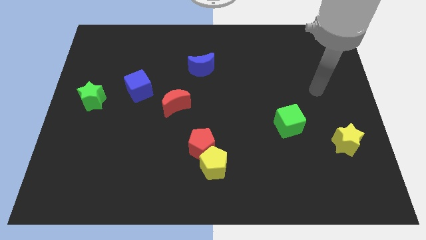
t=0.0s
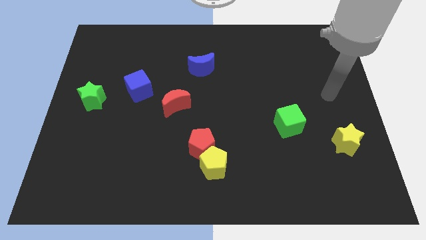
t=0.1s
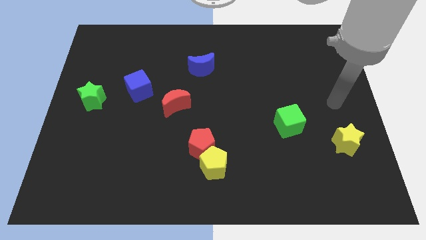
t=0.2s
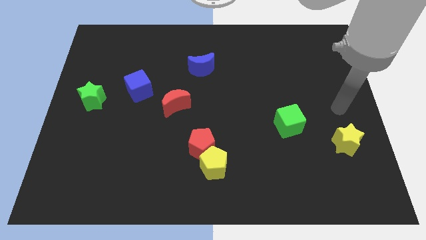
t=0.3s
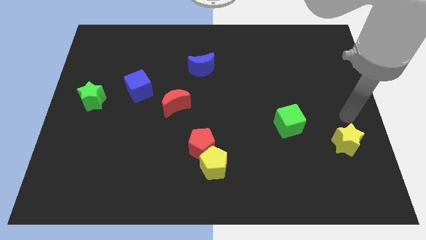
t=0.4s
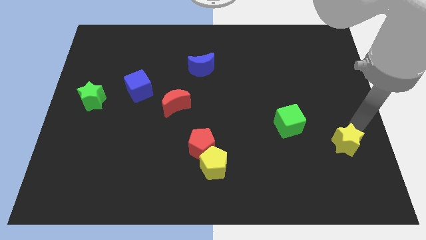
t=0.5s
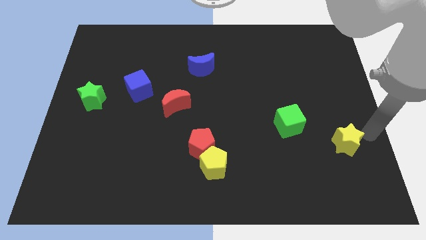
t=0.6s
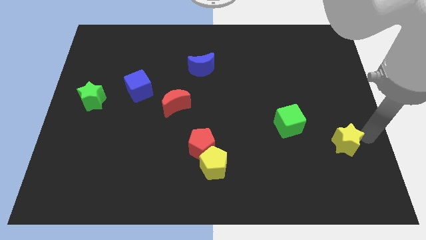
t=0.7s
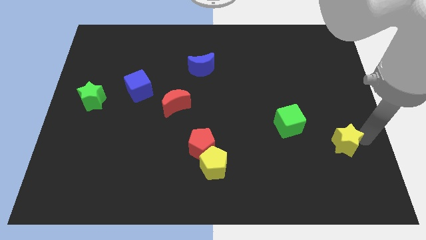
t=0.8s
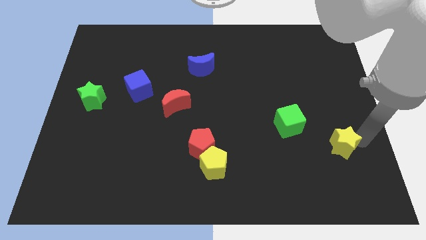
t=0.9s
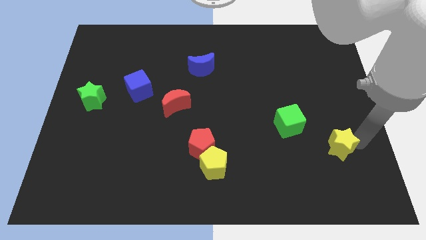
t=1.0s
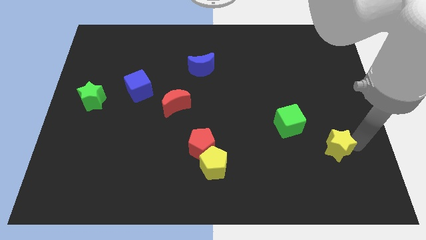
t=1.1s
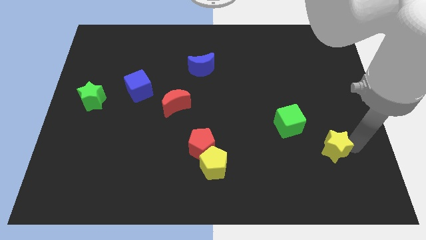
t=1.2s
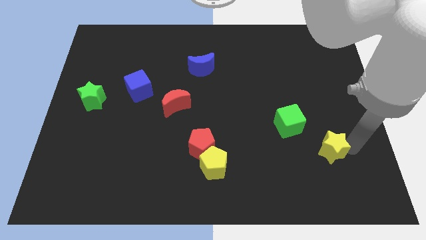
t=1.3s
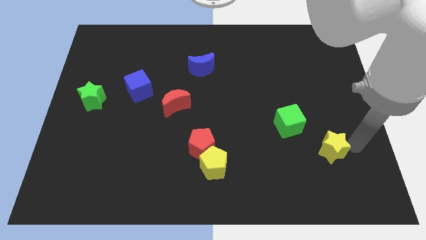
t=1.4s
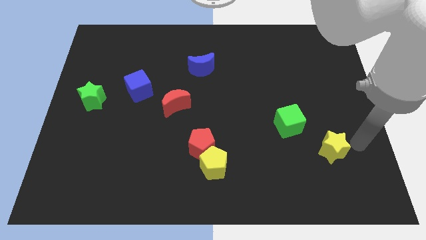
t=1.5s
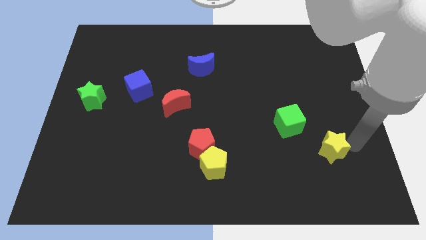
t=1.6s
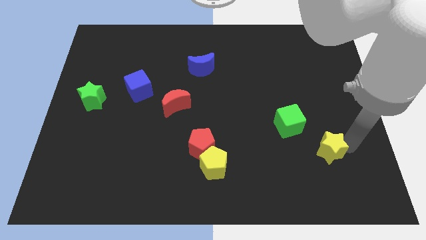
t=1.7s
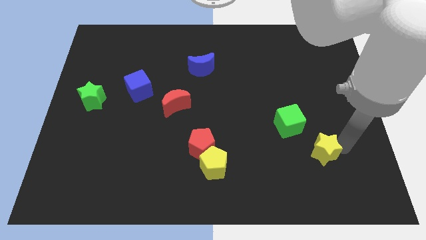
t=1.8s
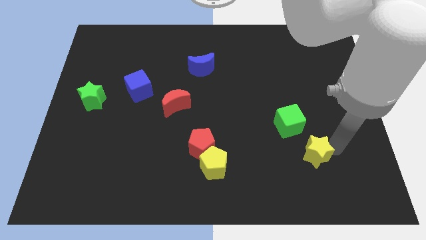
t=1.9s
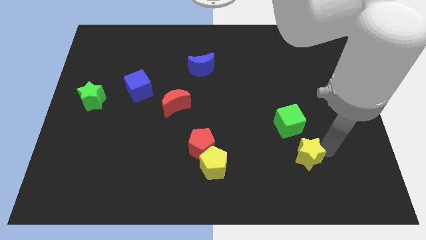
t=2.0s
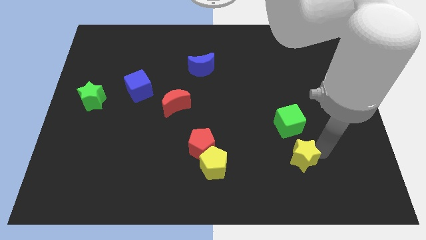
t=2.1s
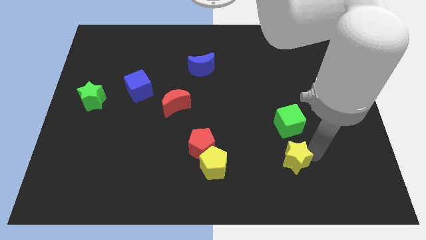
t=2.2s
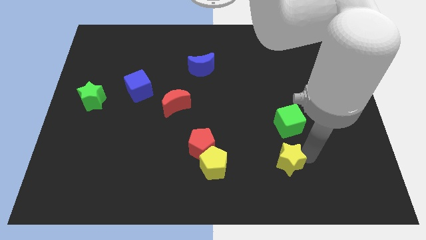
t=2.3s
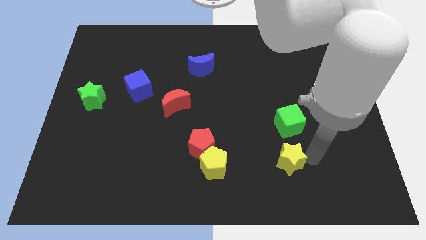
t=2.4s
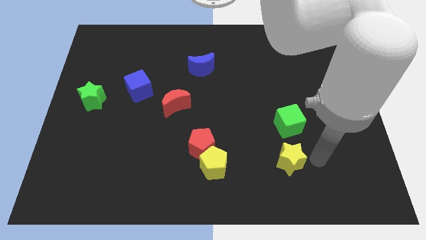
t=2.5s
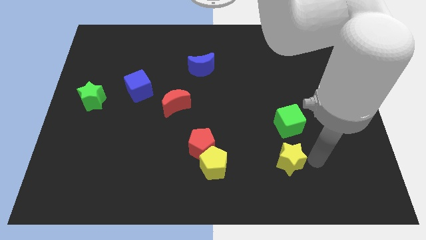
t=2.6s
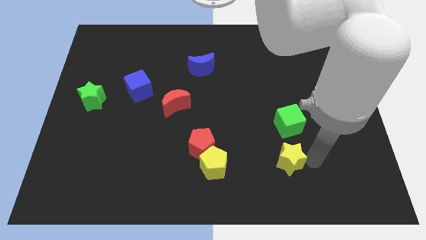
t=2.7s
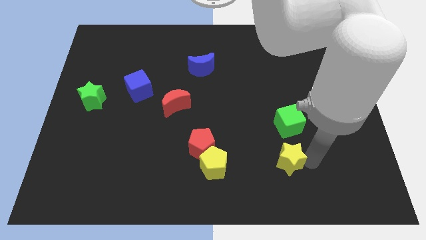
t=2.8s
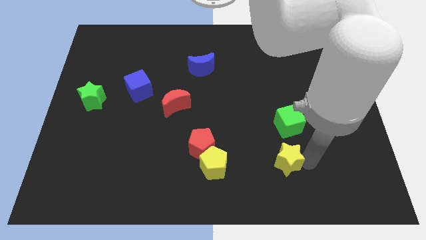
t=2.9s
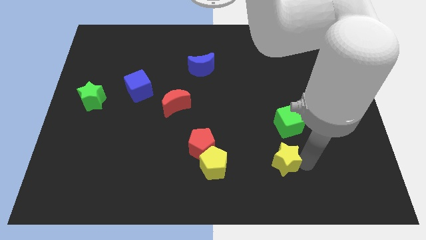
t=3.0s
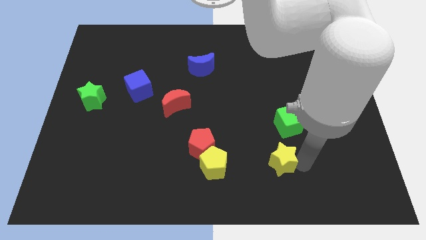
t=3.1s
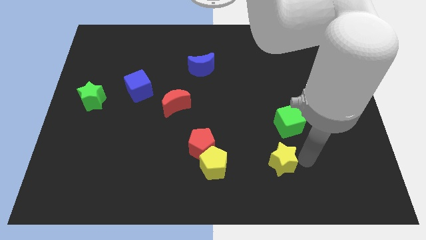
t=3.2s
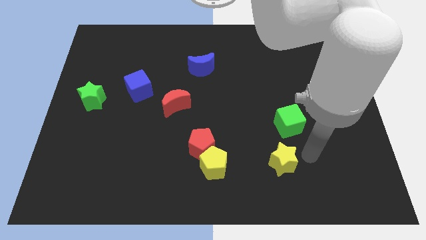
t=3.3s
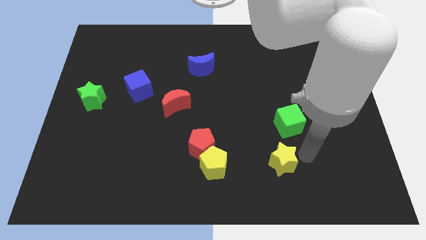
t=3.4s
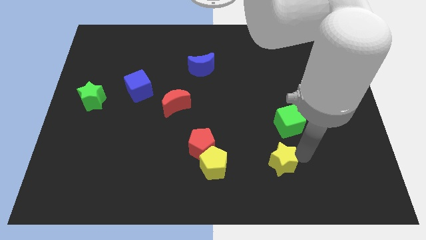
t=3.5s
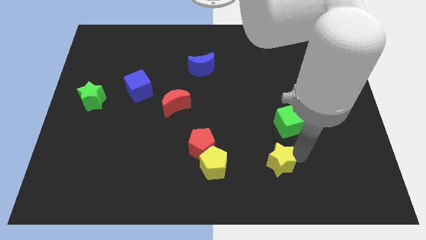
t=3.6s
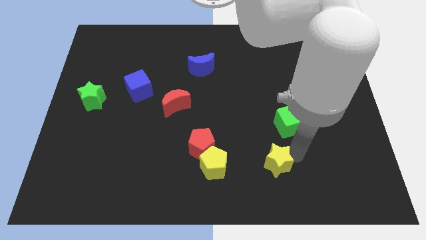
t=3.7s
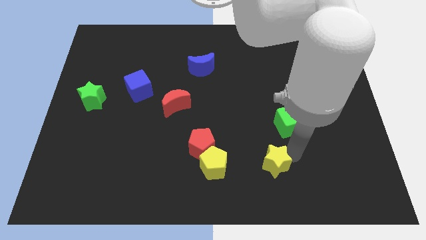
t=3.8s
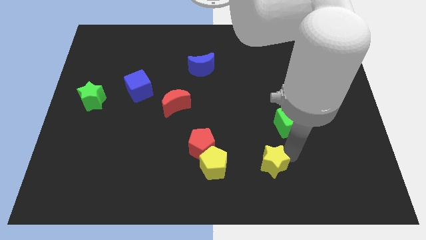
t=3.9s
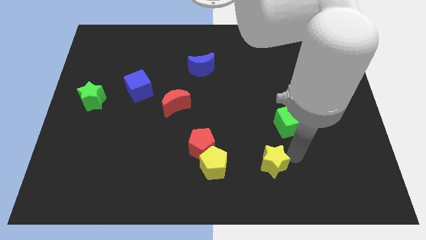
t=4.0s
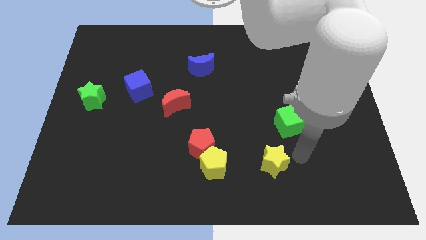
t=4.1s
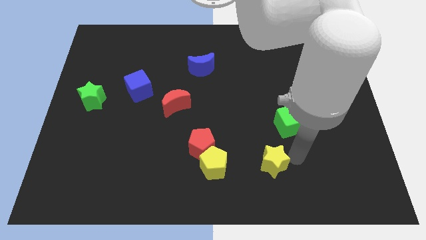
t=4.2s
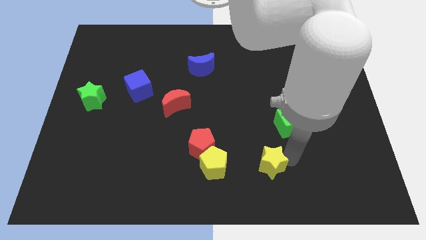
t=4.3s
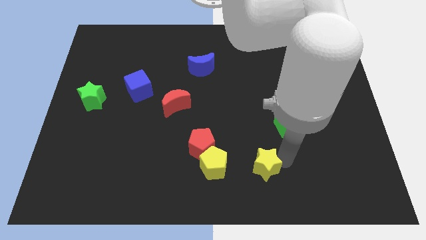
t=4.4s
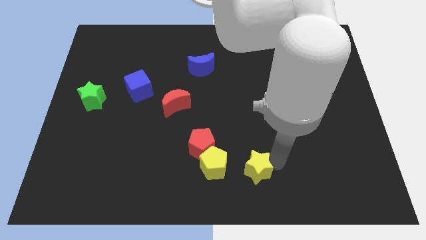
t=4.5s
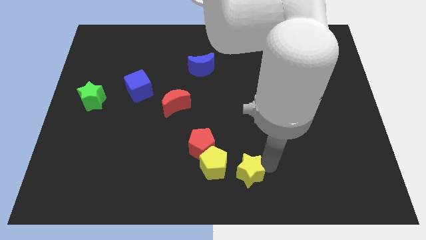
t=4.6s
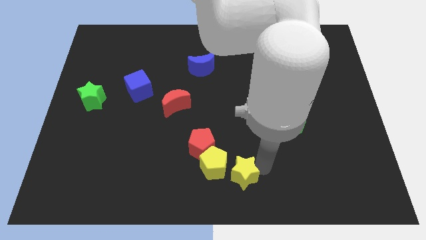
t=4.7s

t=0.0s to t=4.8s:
move the yellow star towards the yellow pentagon

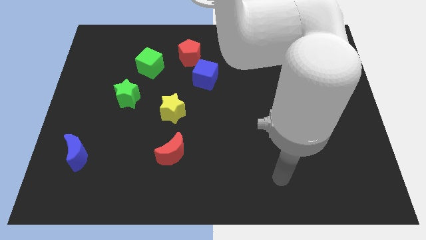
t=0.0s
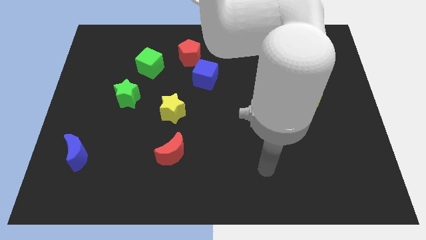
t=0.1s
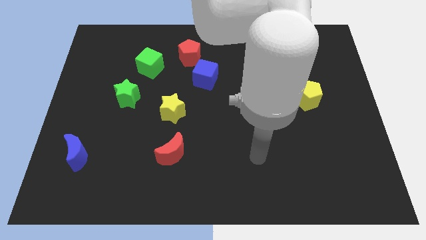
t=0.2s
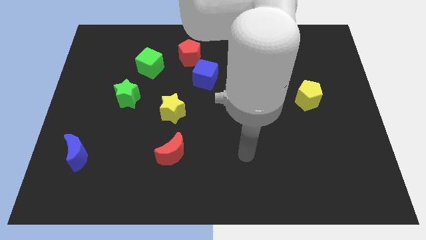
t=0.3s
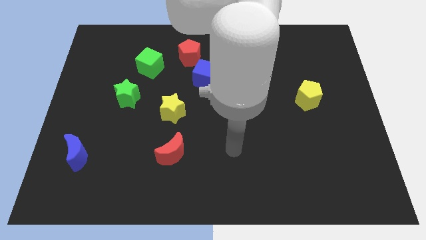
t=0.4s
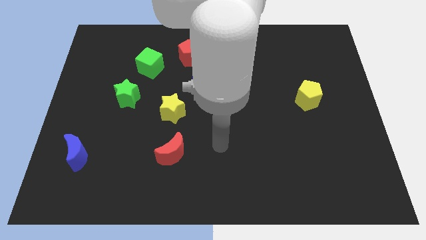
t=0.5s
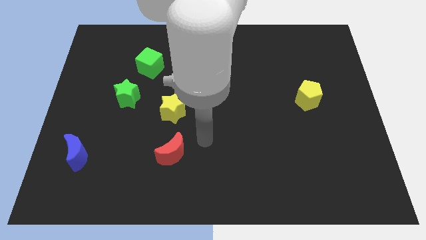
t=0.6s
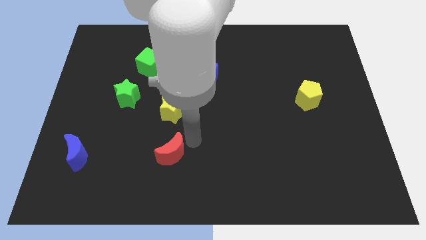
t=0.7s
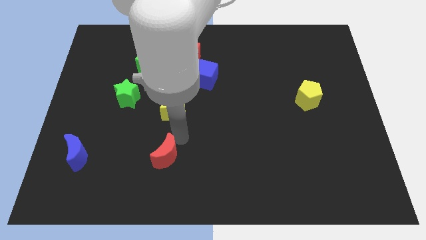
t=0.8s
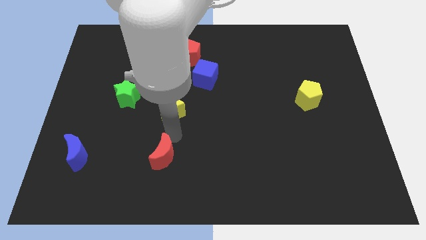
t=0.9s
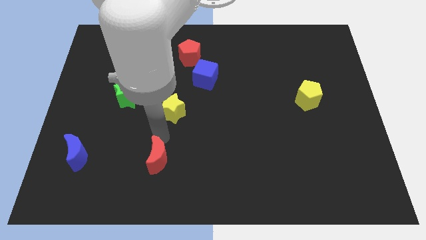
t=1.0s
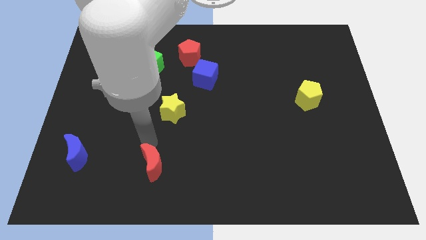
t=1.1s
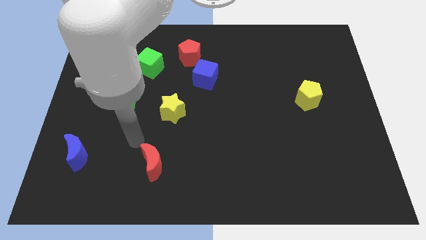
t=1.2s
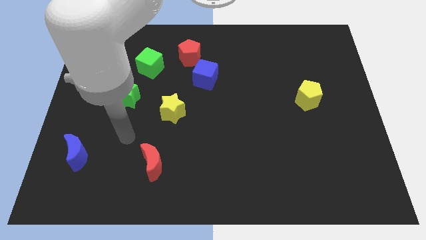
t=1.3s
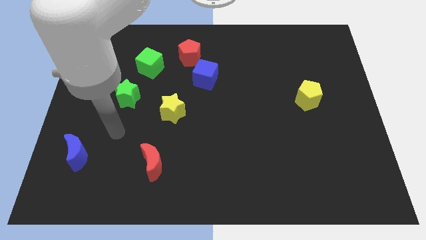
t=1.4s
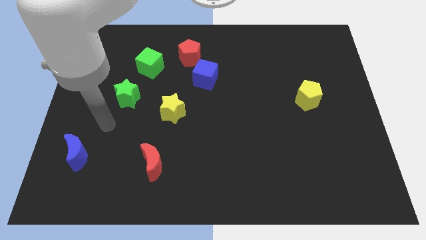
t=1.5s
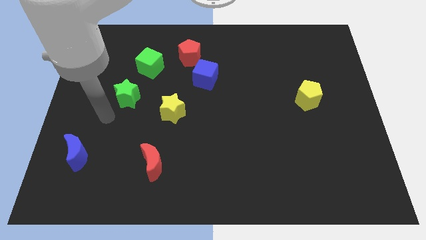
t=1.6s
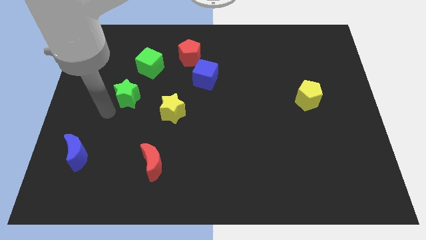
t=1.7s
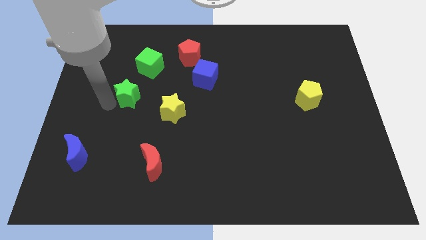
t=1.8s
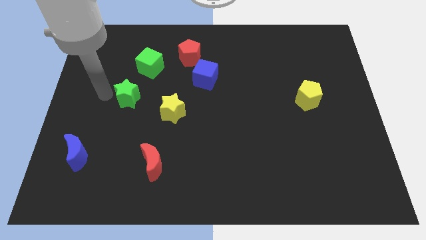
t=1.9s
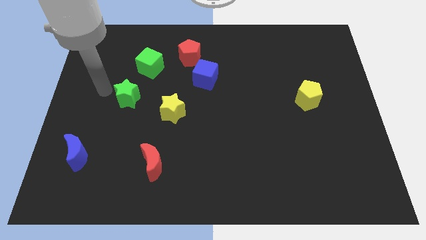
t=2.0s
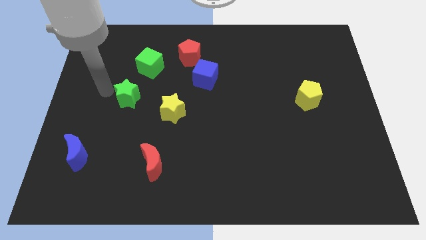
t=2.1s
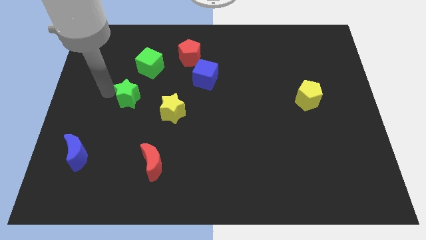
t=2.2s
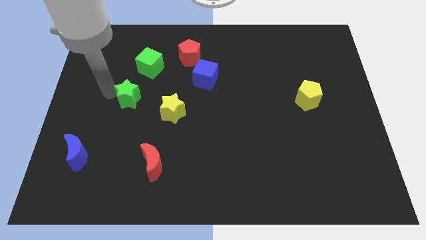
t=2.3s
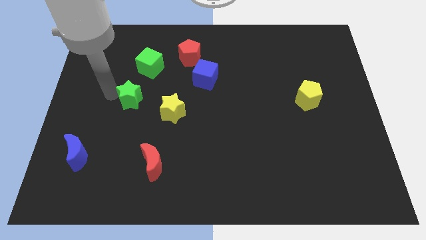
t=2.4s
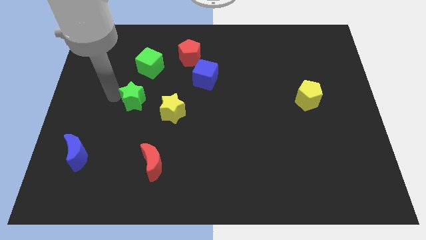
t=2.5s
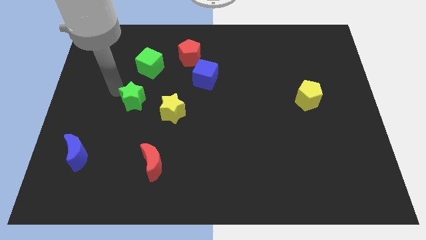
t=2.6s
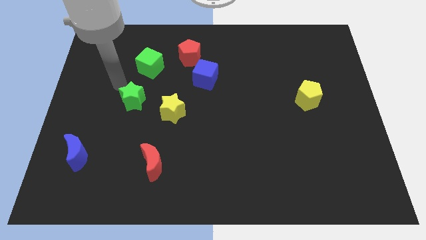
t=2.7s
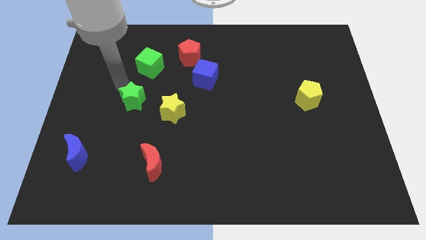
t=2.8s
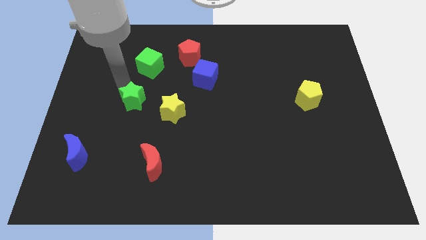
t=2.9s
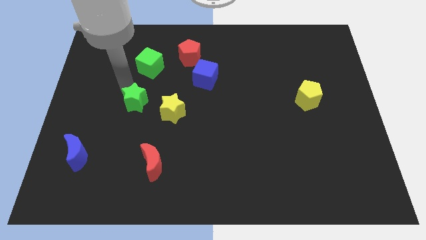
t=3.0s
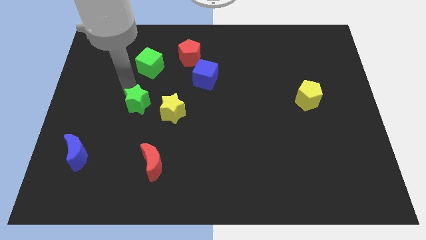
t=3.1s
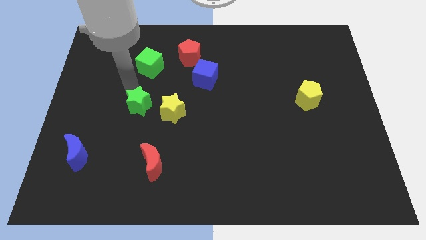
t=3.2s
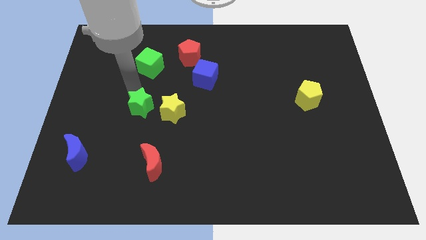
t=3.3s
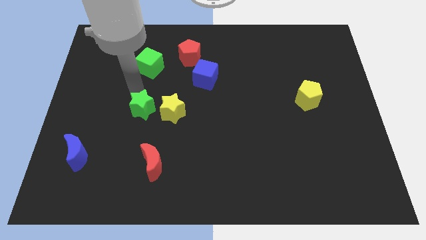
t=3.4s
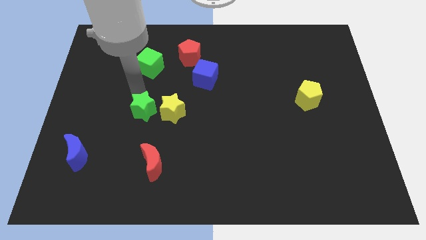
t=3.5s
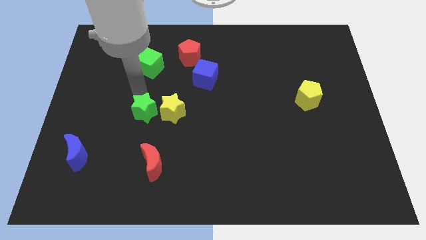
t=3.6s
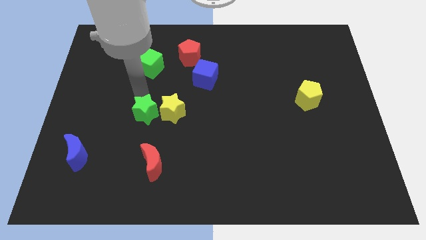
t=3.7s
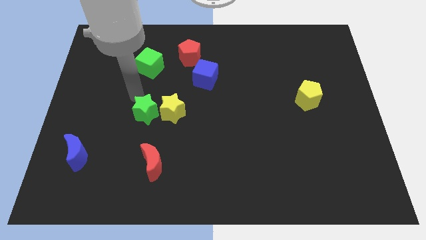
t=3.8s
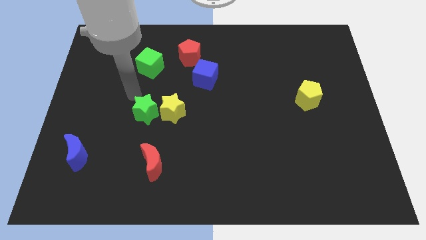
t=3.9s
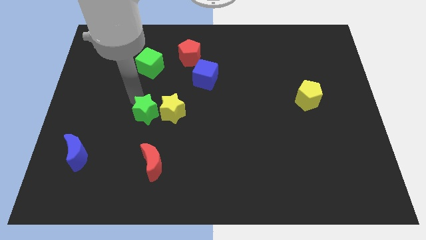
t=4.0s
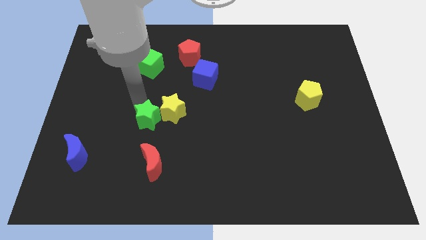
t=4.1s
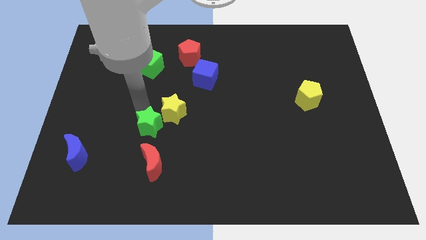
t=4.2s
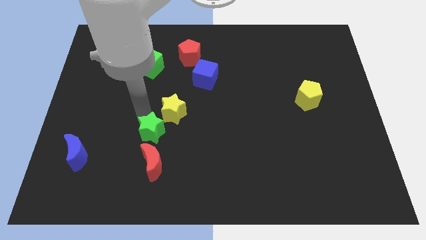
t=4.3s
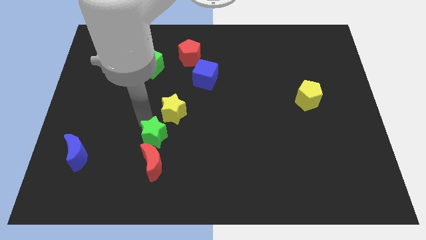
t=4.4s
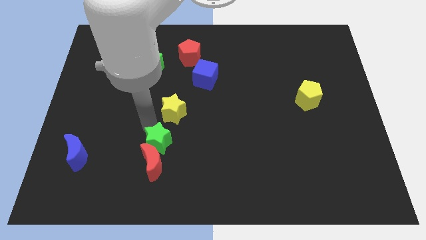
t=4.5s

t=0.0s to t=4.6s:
move the green star close to the red moon
